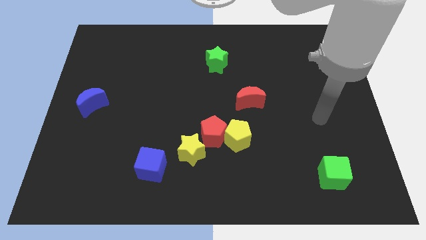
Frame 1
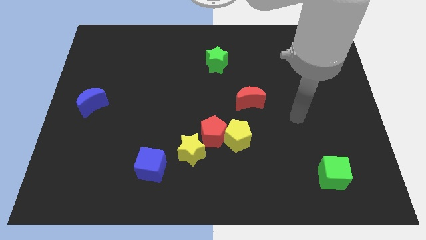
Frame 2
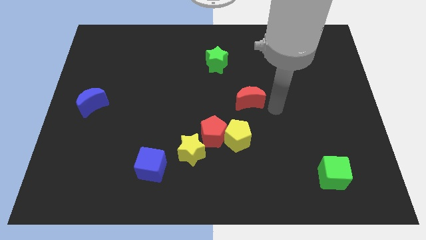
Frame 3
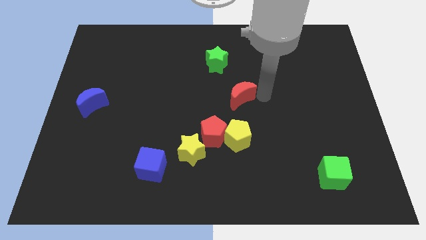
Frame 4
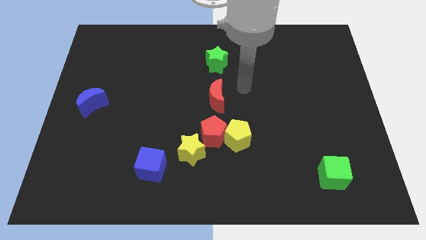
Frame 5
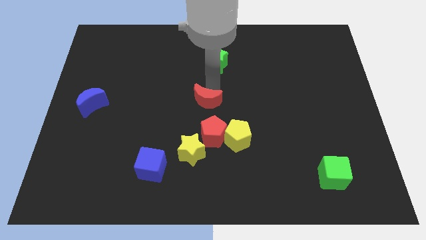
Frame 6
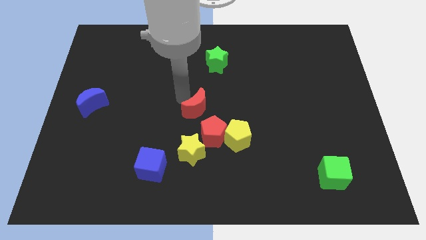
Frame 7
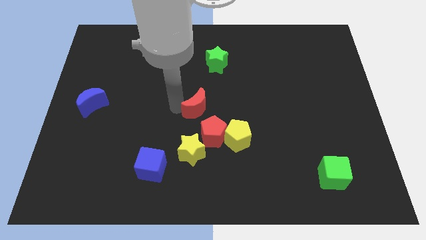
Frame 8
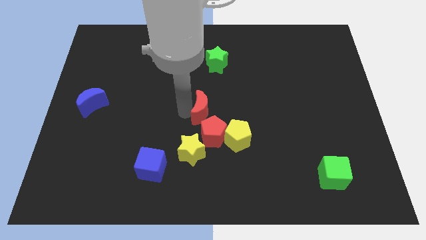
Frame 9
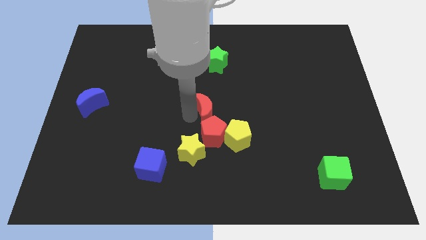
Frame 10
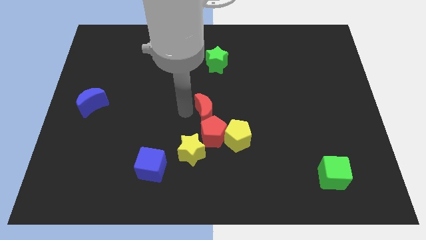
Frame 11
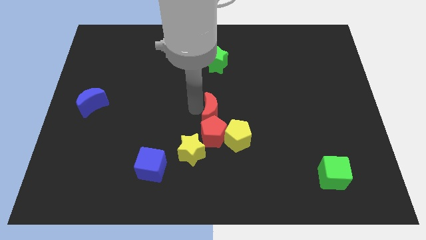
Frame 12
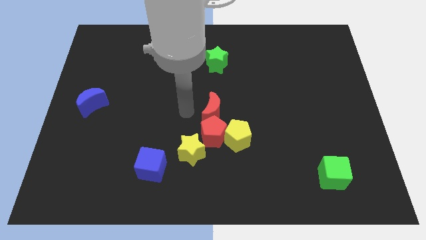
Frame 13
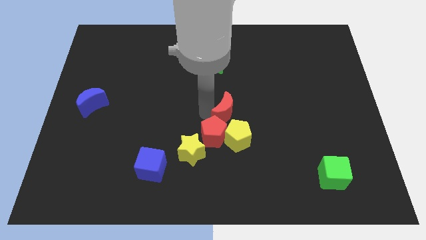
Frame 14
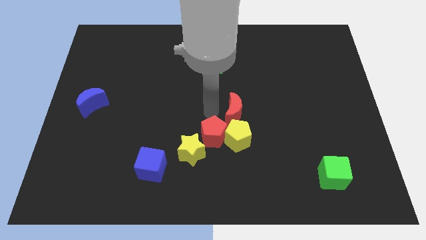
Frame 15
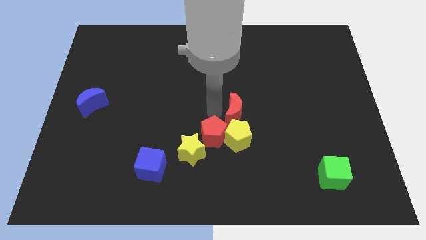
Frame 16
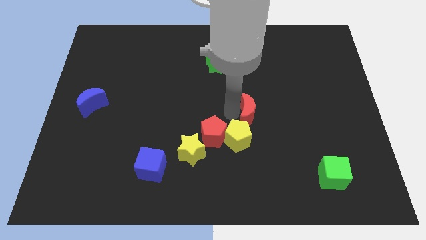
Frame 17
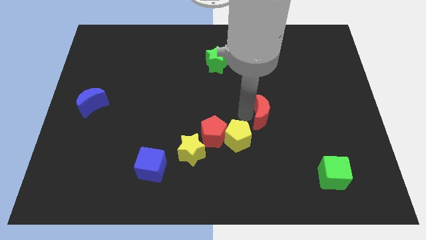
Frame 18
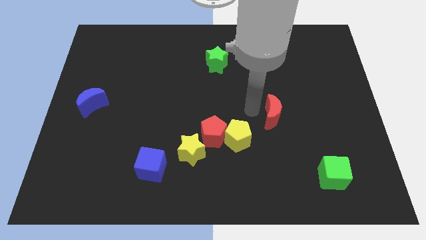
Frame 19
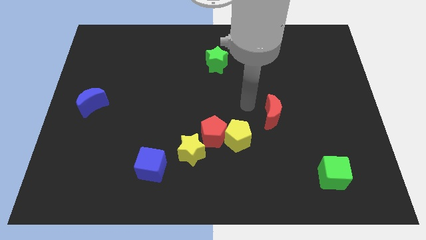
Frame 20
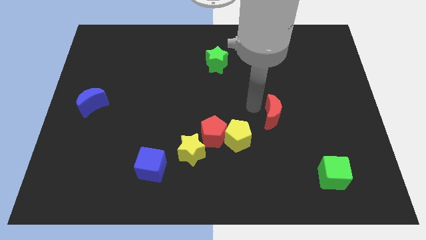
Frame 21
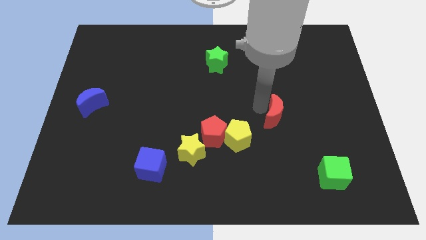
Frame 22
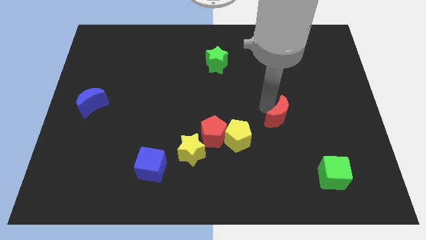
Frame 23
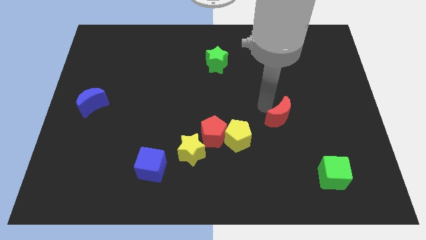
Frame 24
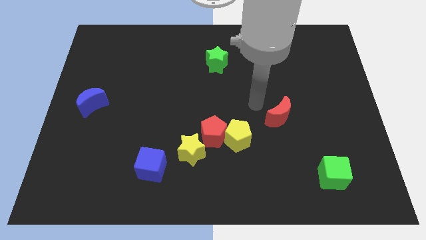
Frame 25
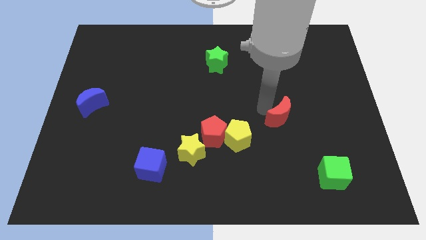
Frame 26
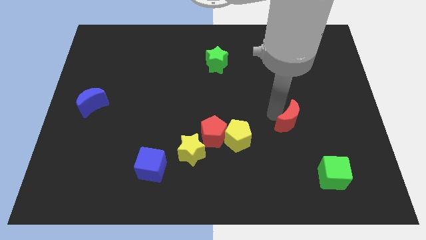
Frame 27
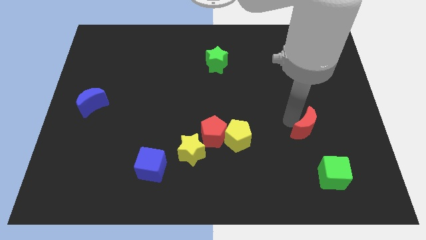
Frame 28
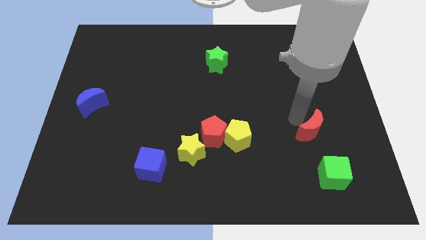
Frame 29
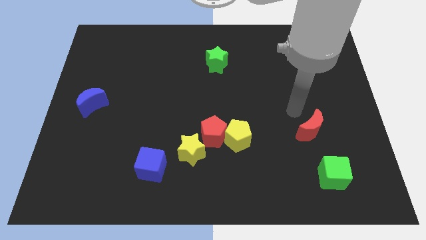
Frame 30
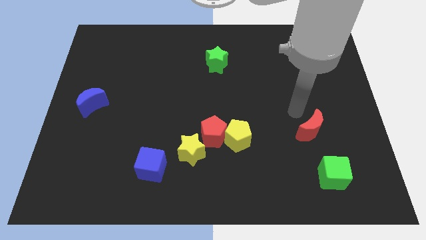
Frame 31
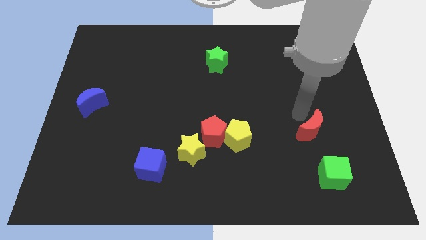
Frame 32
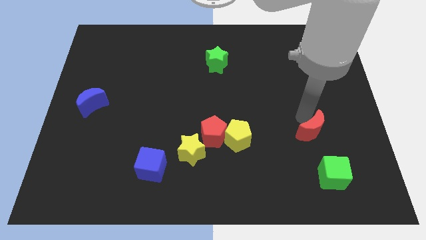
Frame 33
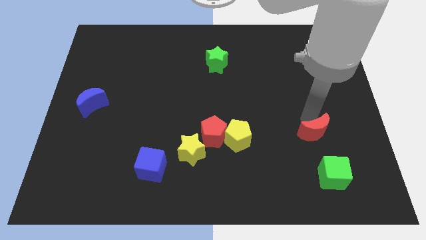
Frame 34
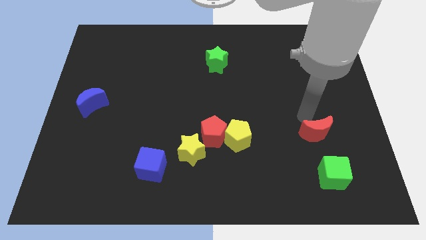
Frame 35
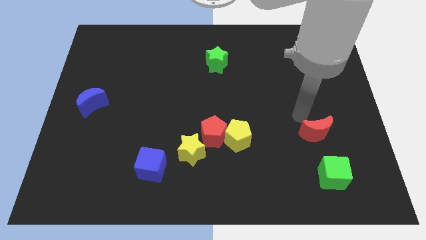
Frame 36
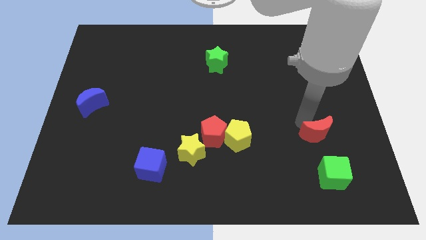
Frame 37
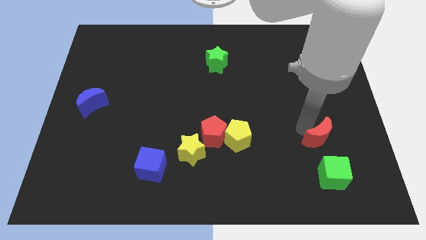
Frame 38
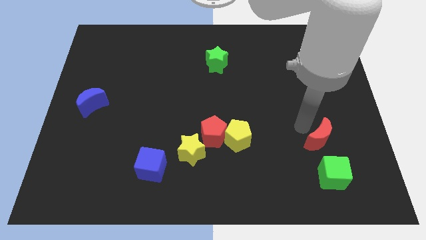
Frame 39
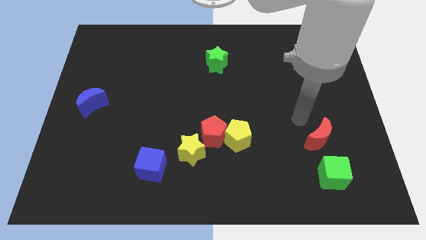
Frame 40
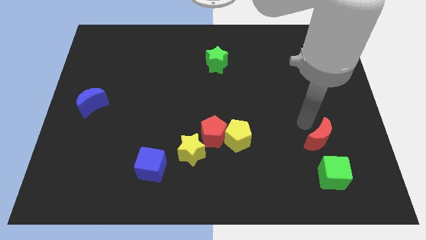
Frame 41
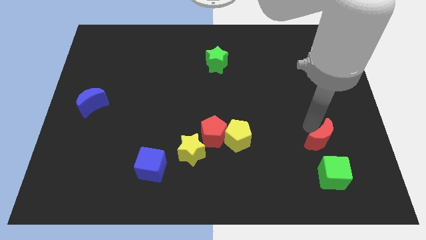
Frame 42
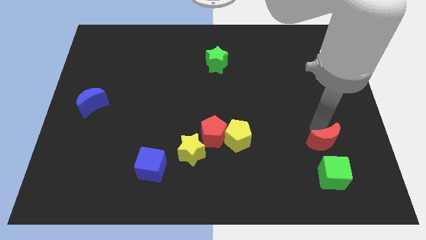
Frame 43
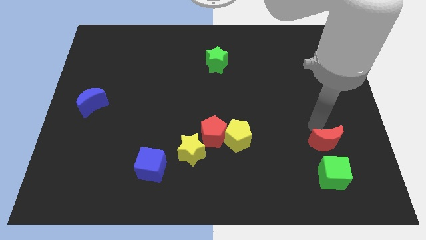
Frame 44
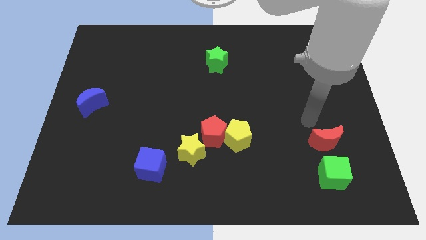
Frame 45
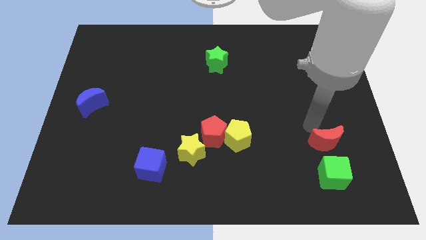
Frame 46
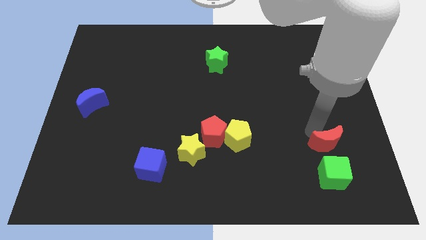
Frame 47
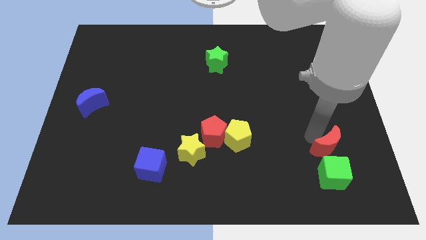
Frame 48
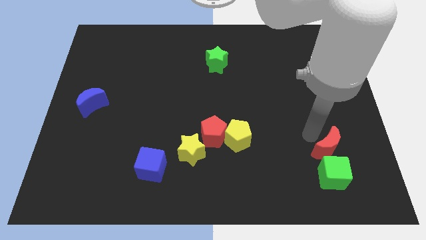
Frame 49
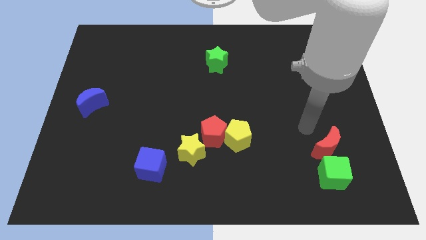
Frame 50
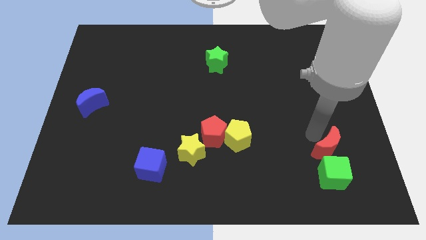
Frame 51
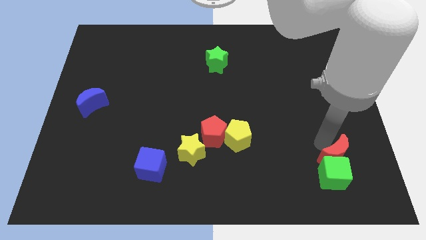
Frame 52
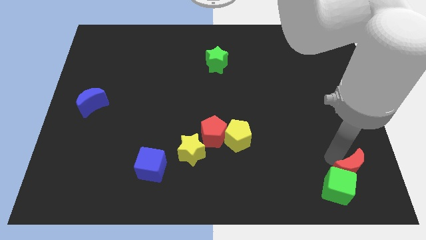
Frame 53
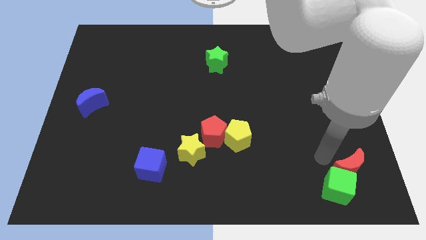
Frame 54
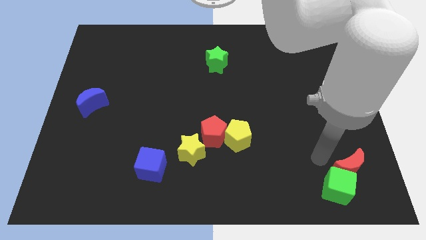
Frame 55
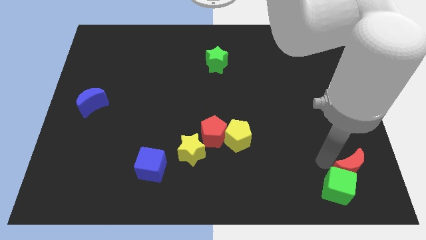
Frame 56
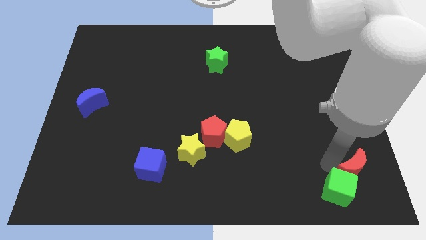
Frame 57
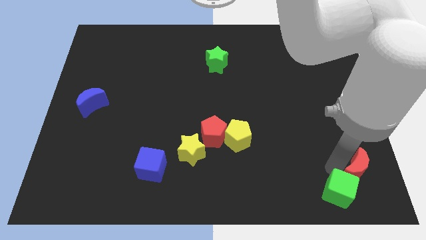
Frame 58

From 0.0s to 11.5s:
slide the red moon to the bottom right

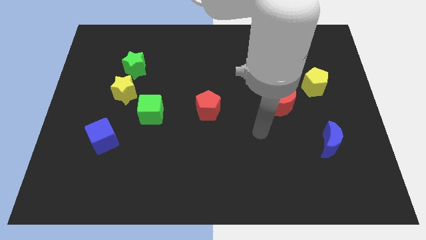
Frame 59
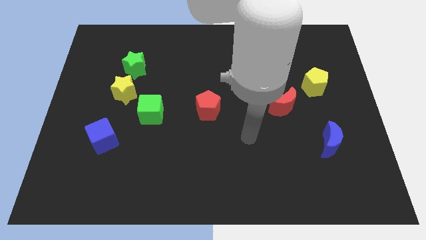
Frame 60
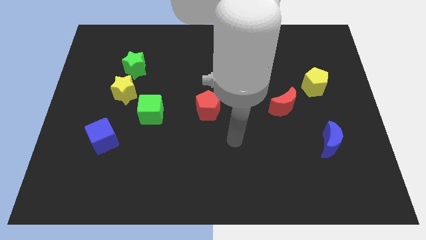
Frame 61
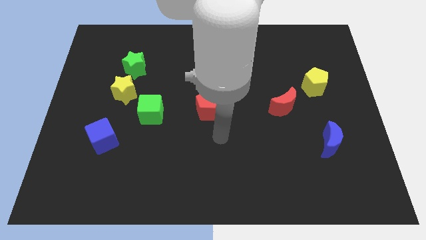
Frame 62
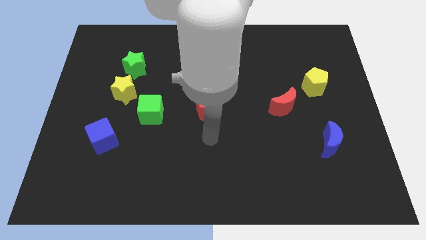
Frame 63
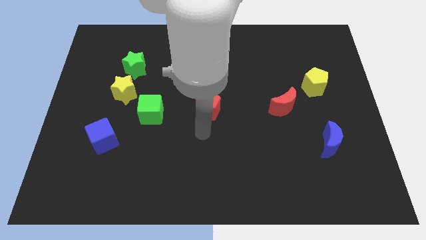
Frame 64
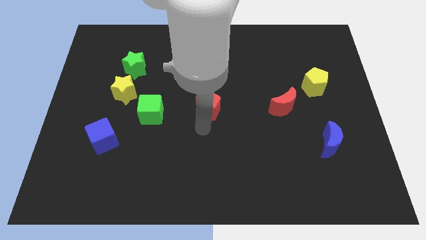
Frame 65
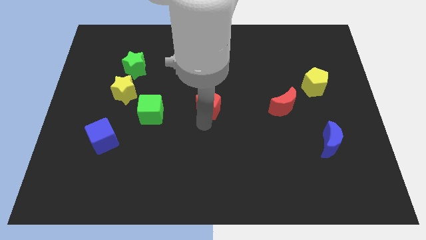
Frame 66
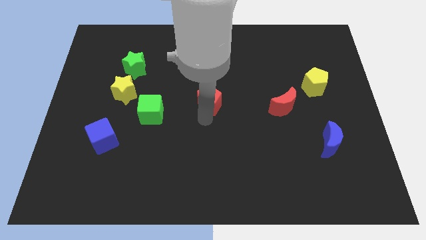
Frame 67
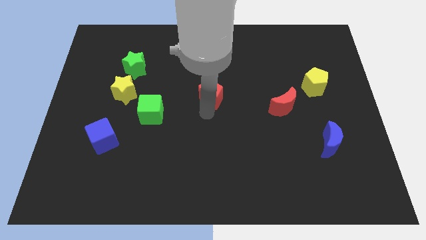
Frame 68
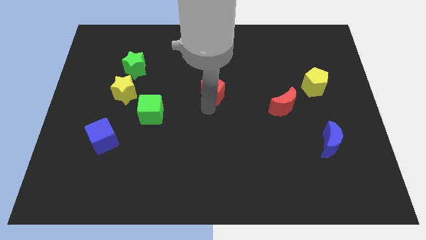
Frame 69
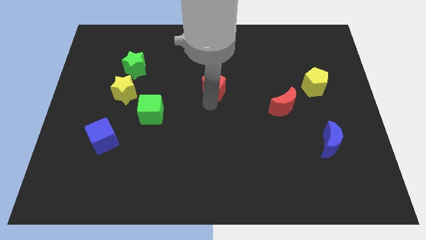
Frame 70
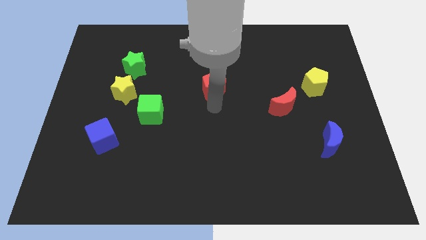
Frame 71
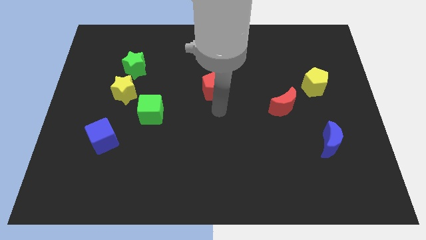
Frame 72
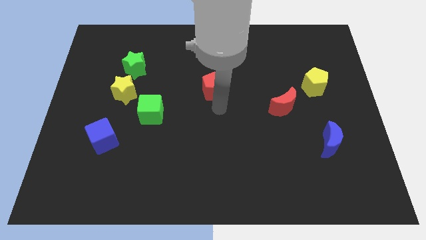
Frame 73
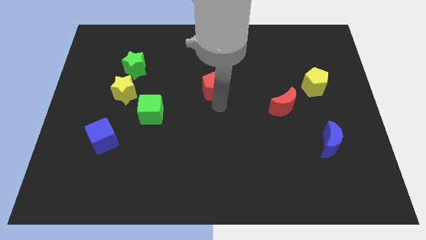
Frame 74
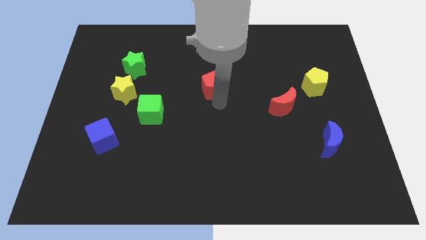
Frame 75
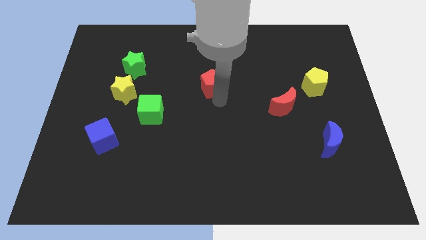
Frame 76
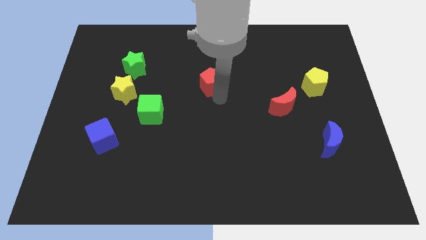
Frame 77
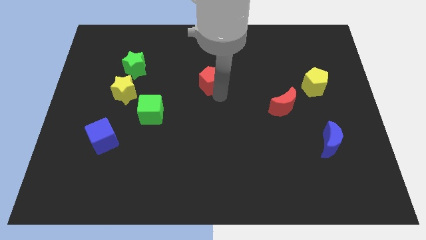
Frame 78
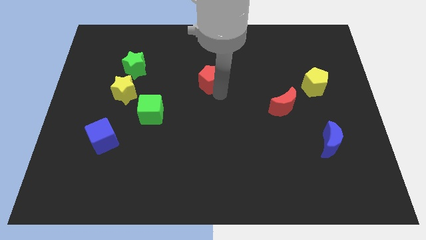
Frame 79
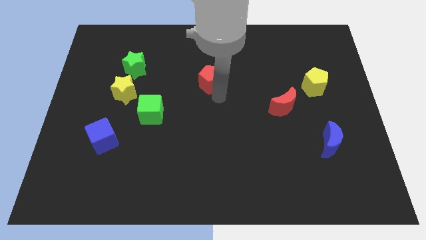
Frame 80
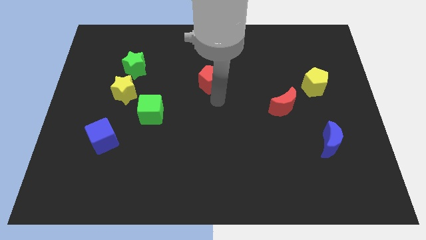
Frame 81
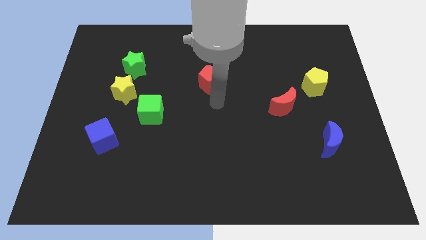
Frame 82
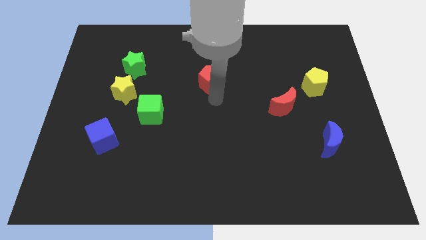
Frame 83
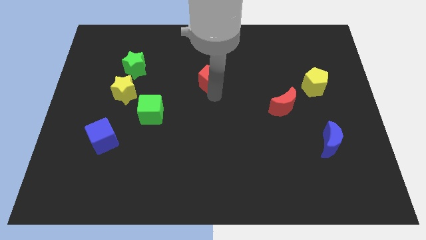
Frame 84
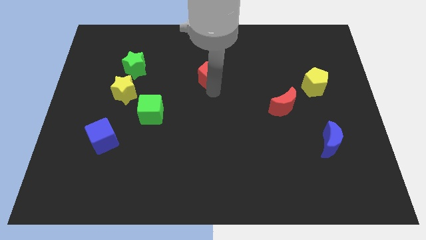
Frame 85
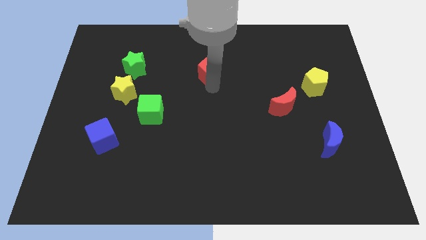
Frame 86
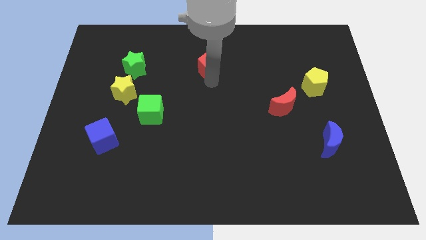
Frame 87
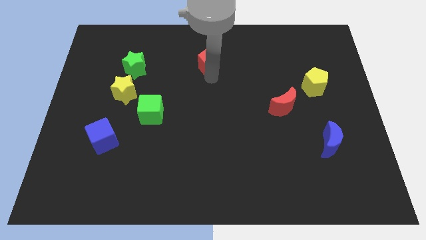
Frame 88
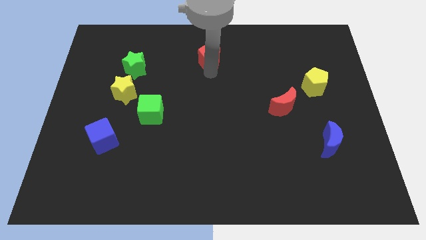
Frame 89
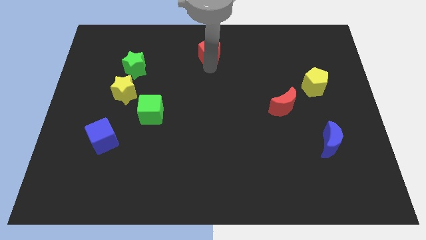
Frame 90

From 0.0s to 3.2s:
slide the red pentagon to the towards your base
